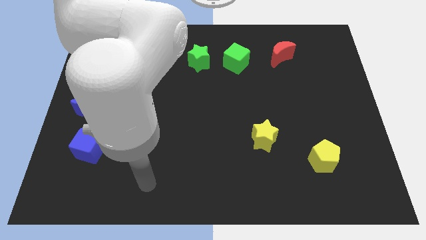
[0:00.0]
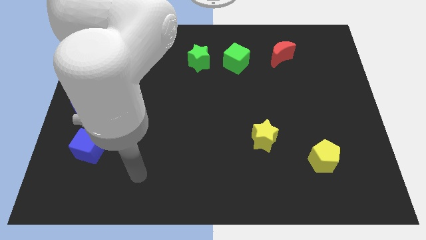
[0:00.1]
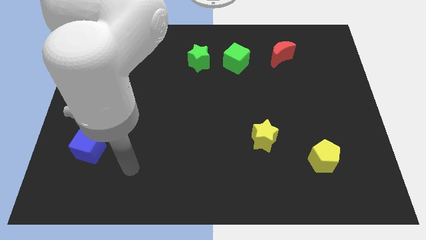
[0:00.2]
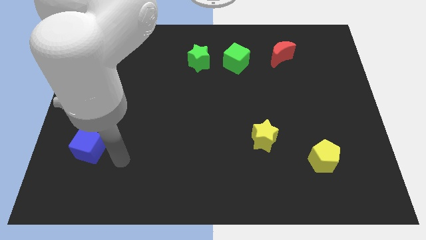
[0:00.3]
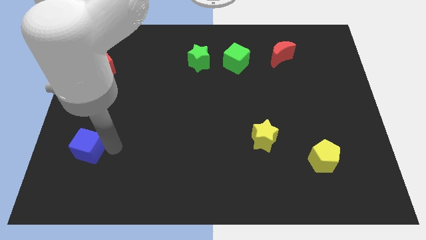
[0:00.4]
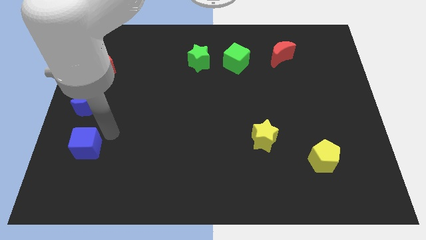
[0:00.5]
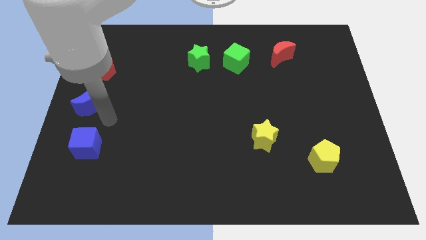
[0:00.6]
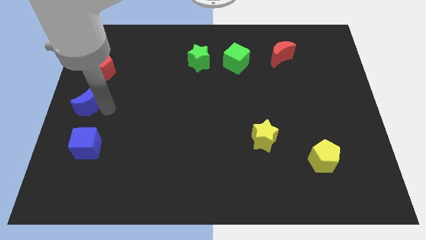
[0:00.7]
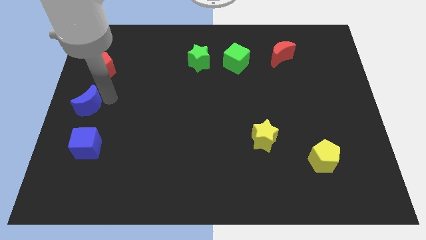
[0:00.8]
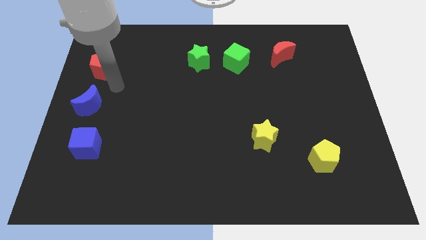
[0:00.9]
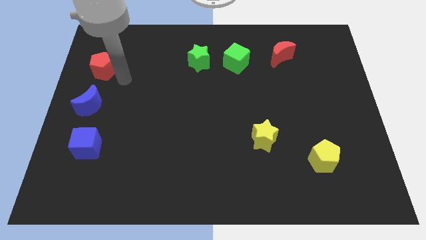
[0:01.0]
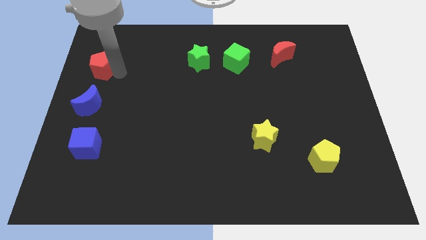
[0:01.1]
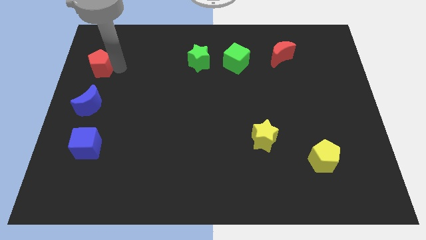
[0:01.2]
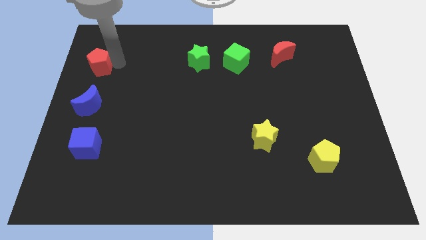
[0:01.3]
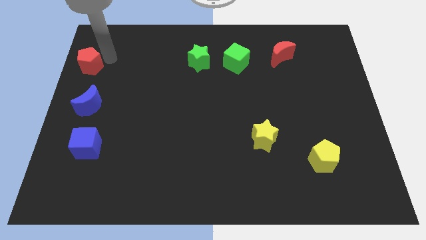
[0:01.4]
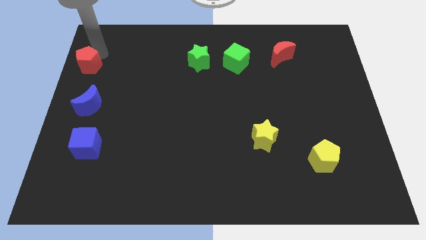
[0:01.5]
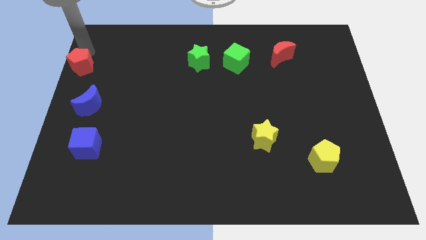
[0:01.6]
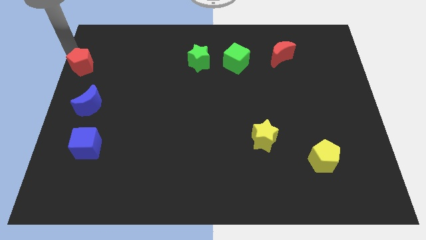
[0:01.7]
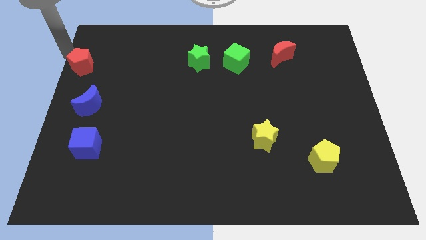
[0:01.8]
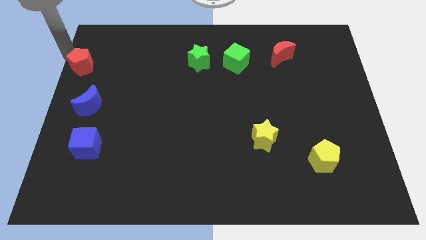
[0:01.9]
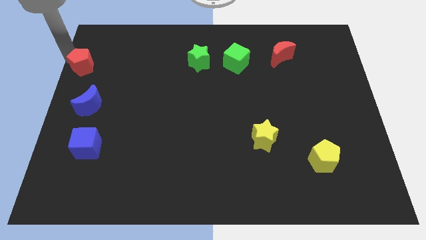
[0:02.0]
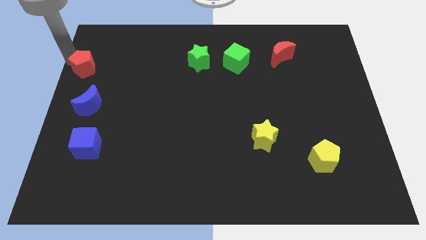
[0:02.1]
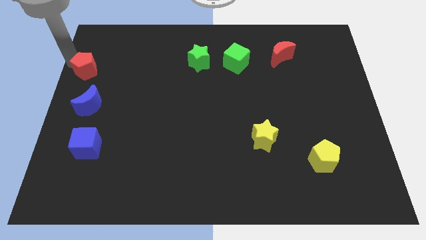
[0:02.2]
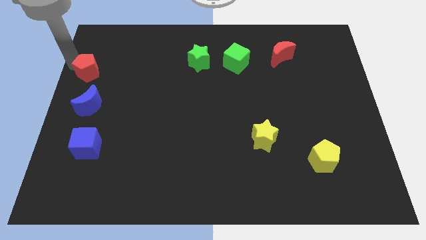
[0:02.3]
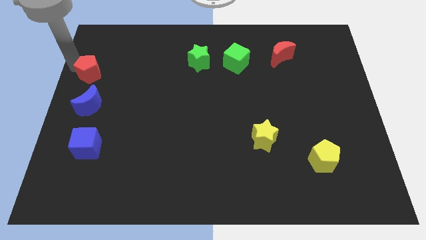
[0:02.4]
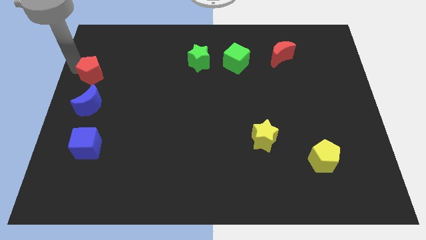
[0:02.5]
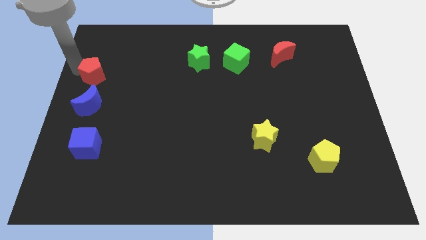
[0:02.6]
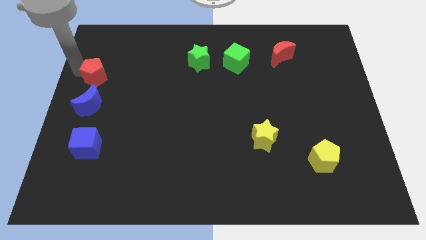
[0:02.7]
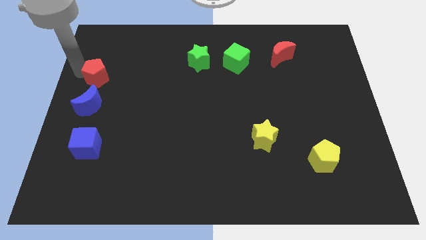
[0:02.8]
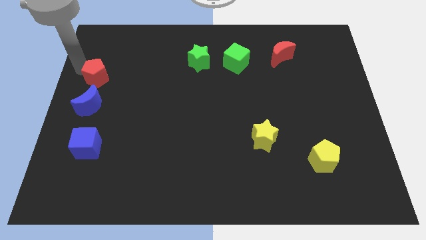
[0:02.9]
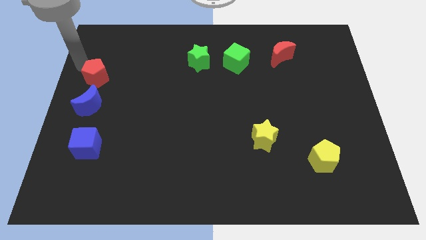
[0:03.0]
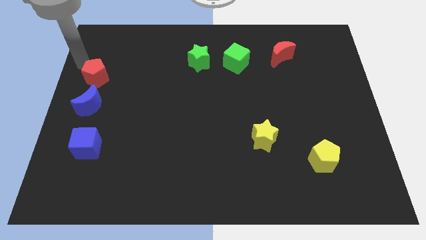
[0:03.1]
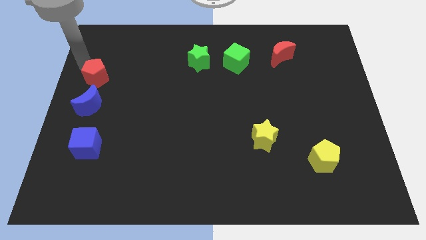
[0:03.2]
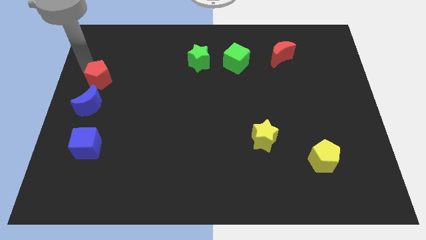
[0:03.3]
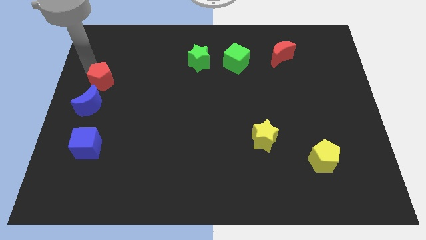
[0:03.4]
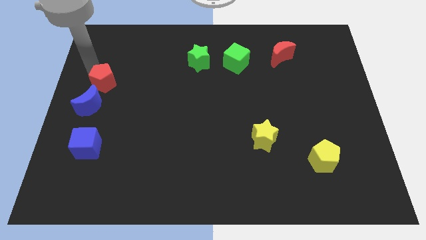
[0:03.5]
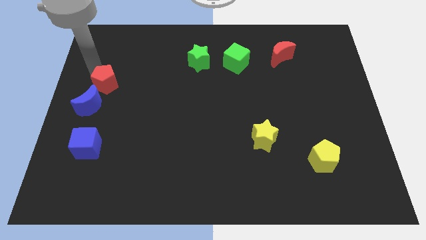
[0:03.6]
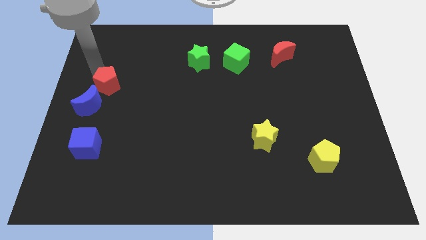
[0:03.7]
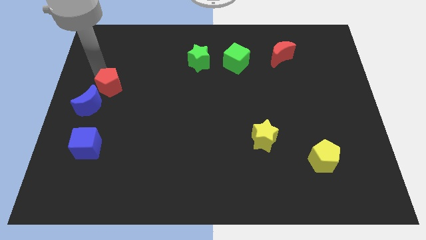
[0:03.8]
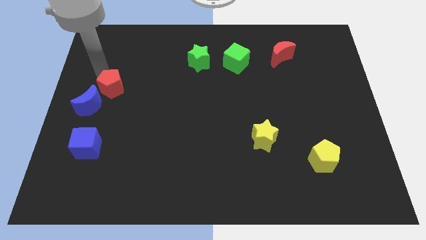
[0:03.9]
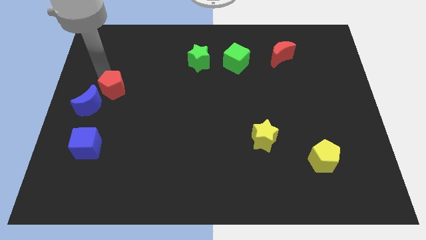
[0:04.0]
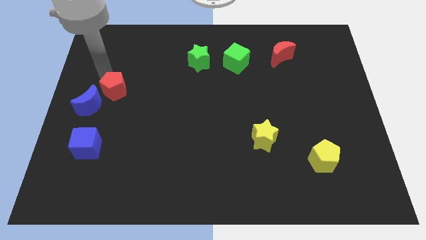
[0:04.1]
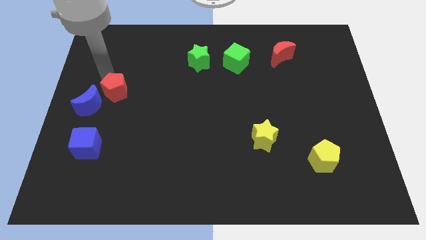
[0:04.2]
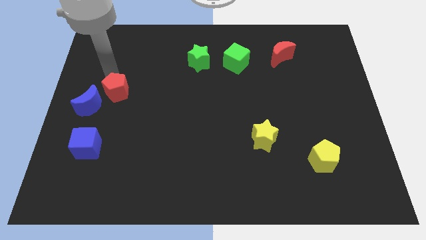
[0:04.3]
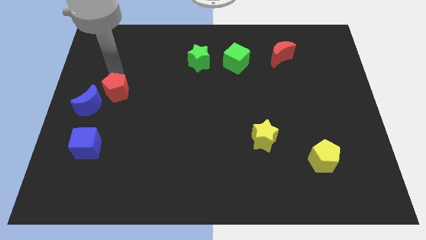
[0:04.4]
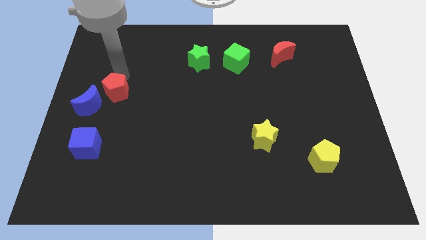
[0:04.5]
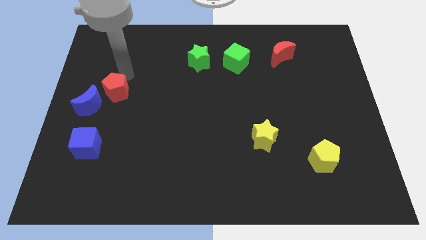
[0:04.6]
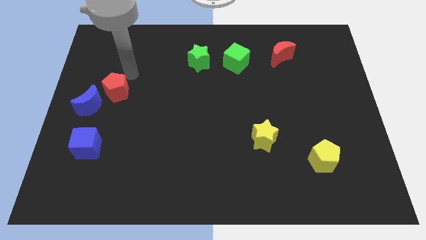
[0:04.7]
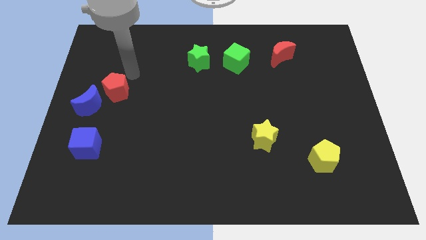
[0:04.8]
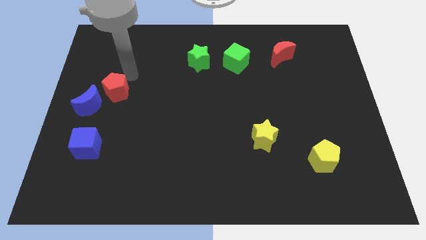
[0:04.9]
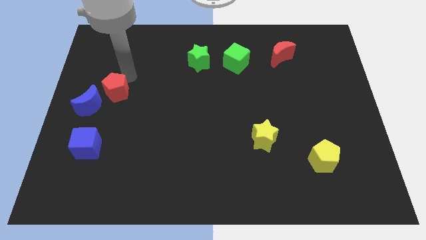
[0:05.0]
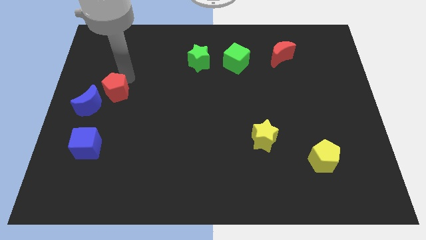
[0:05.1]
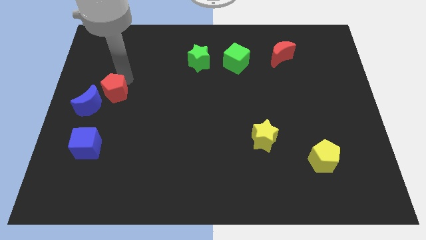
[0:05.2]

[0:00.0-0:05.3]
push the red pentagon down somewhat

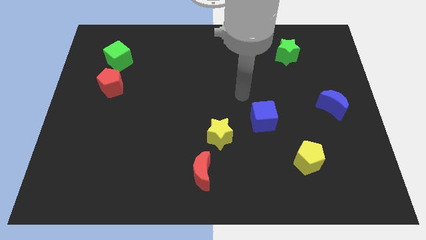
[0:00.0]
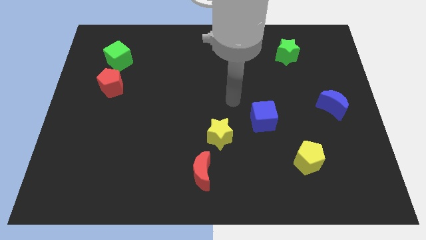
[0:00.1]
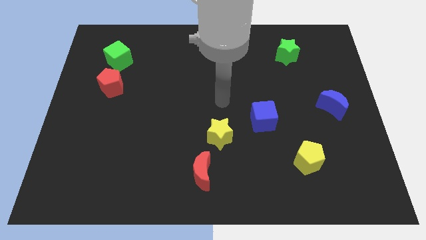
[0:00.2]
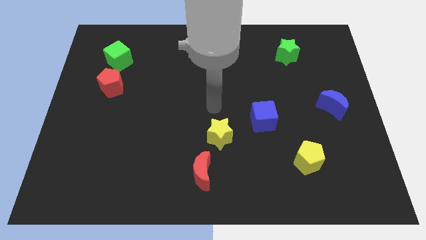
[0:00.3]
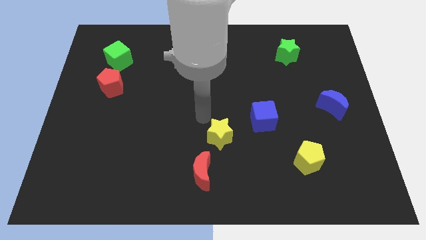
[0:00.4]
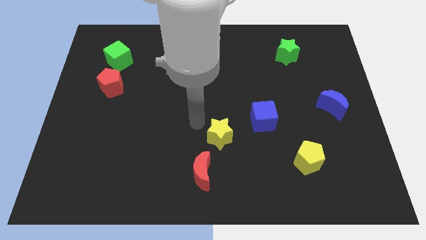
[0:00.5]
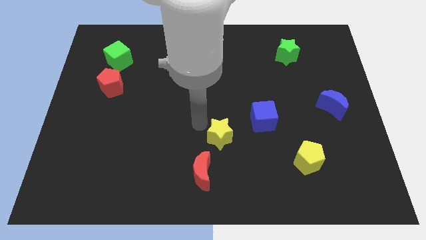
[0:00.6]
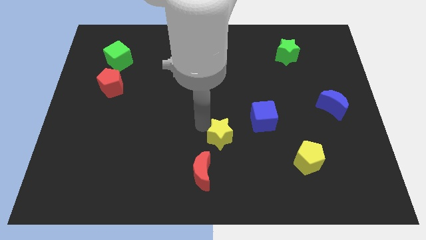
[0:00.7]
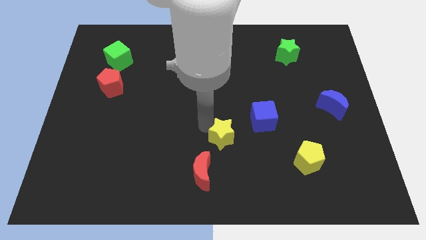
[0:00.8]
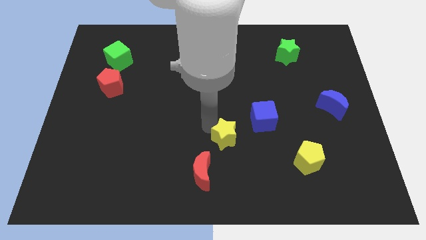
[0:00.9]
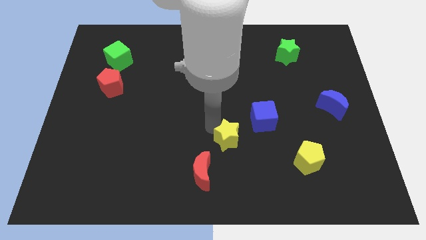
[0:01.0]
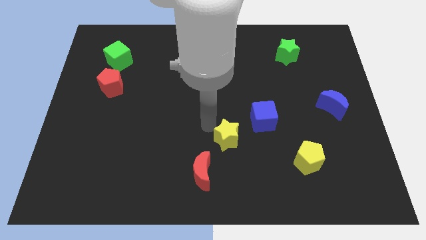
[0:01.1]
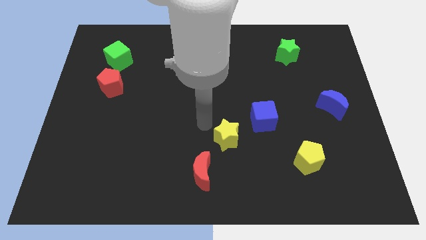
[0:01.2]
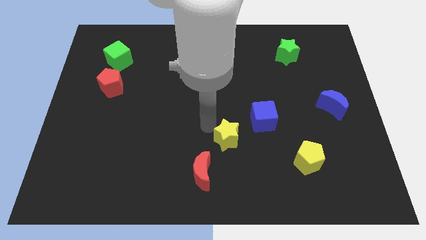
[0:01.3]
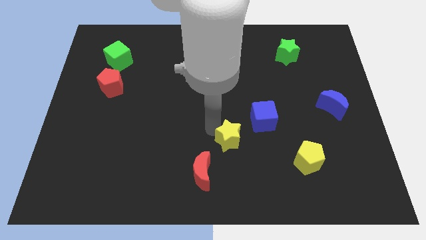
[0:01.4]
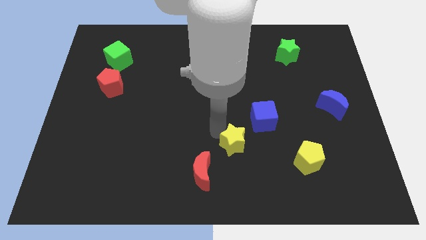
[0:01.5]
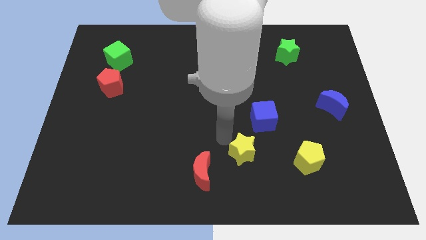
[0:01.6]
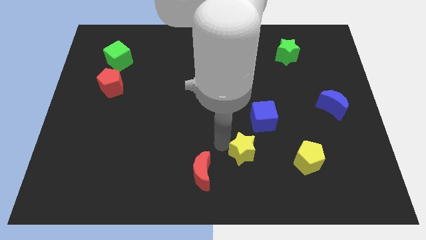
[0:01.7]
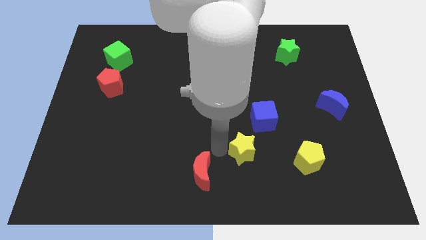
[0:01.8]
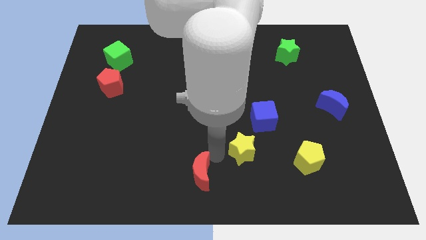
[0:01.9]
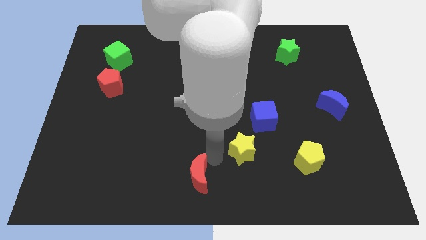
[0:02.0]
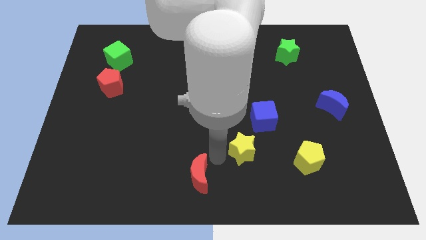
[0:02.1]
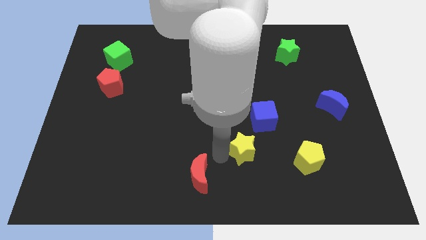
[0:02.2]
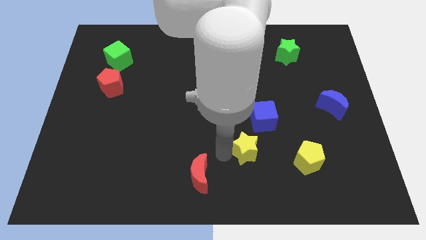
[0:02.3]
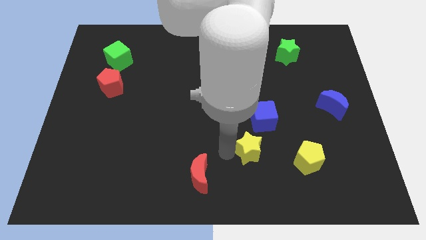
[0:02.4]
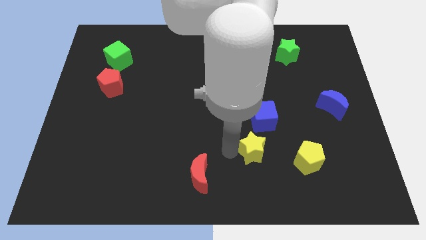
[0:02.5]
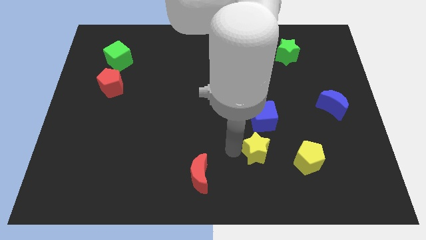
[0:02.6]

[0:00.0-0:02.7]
push the yellow star a bit to the right
